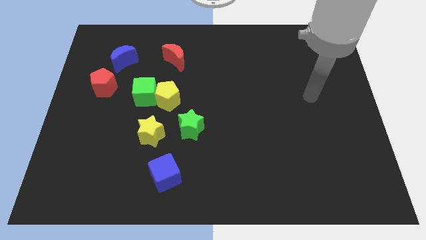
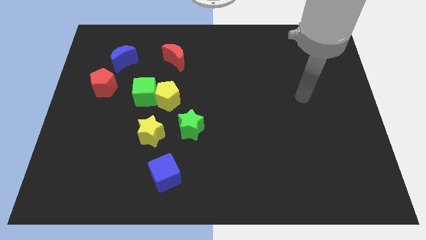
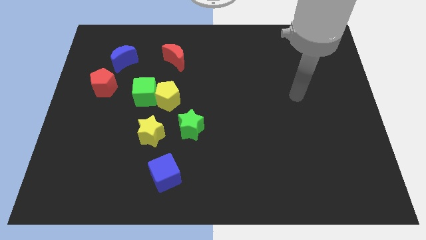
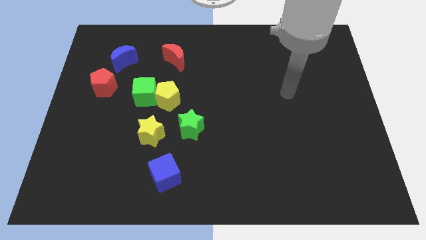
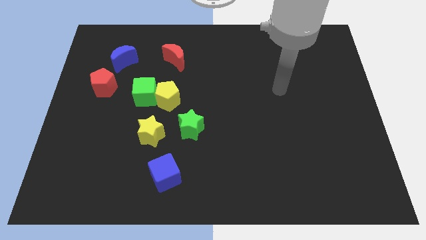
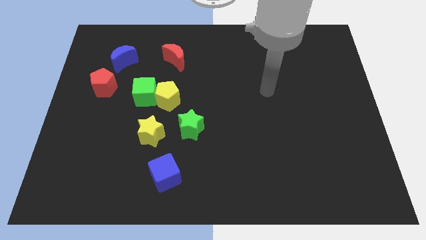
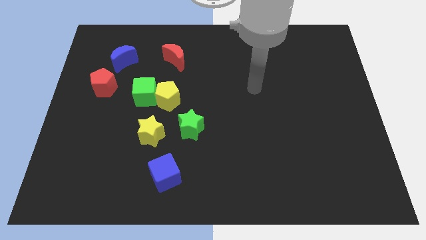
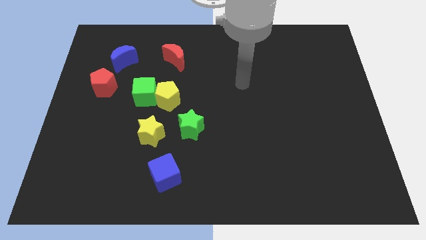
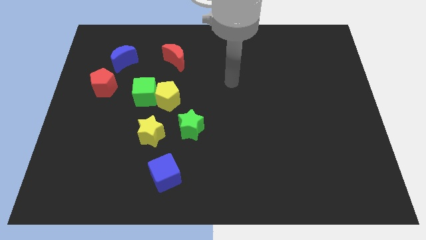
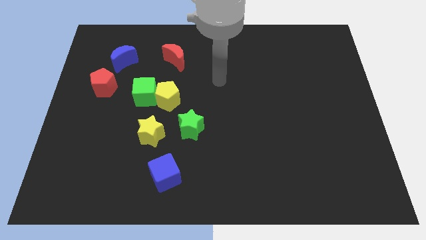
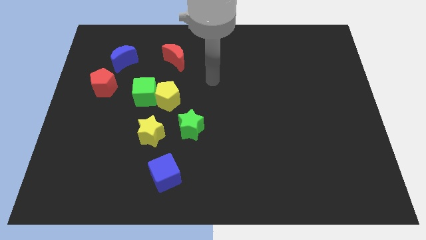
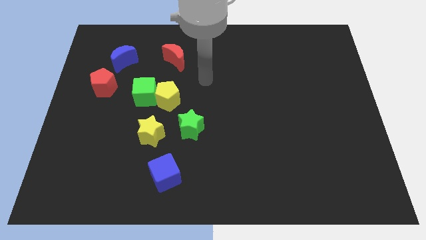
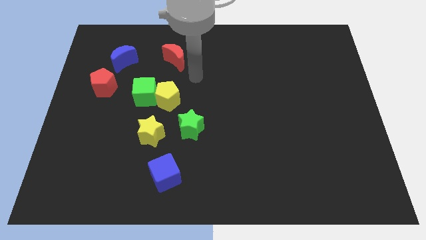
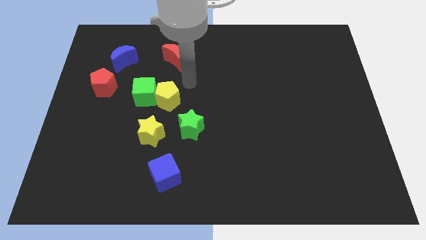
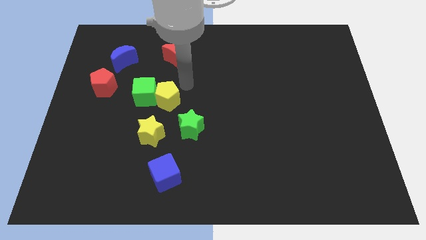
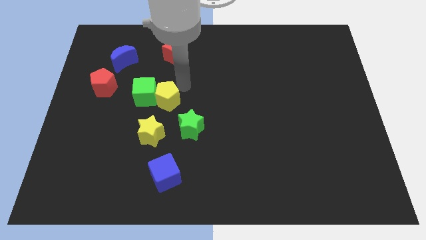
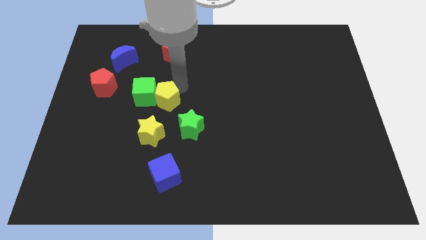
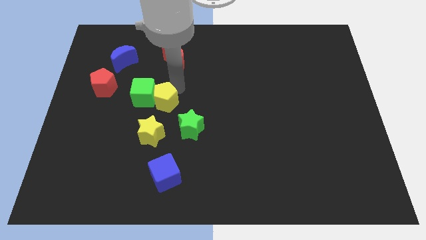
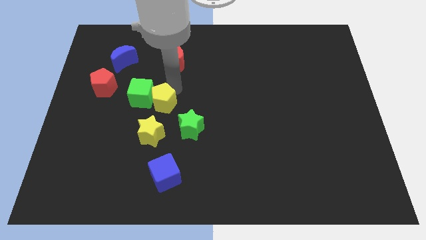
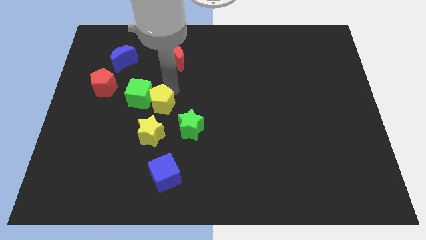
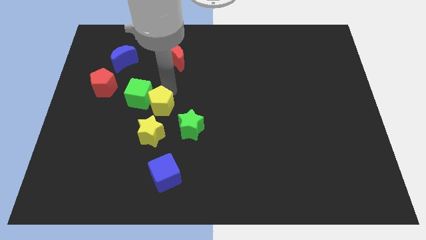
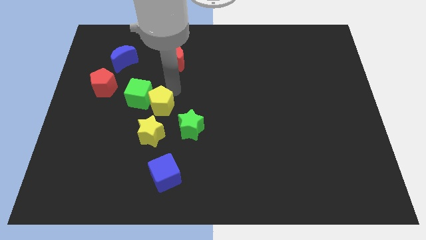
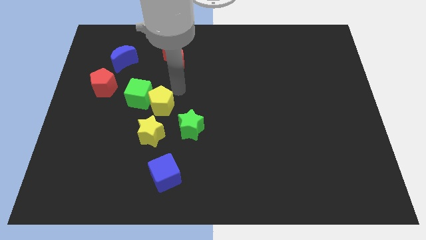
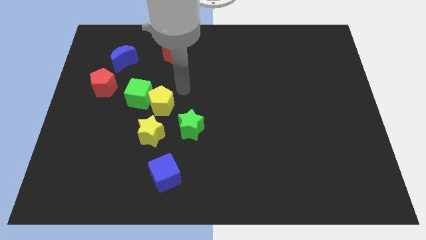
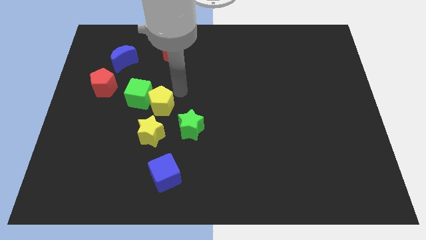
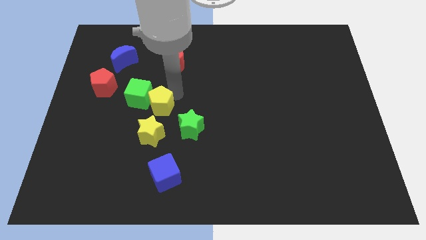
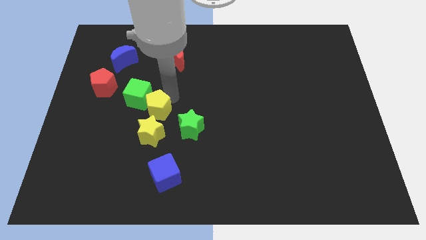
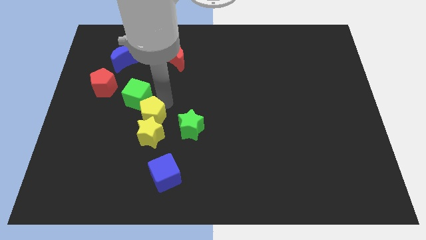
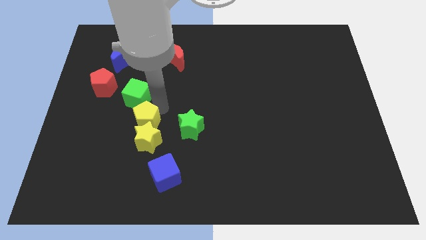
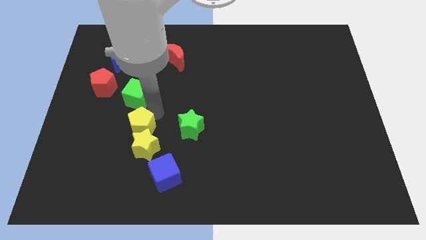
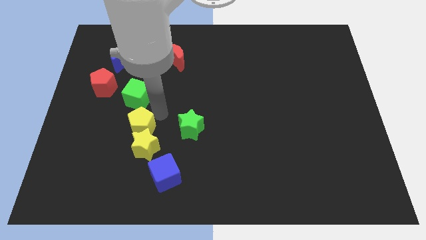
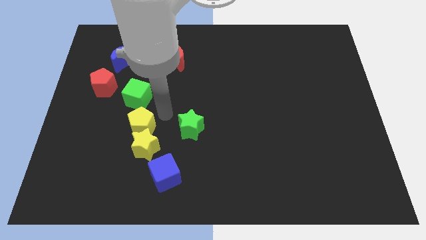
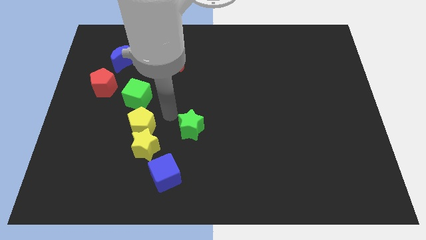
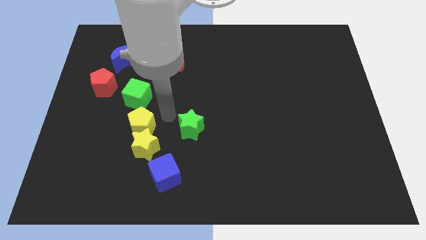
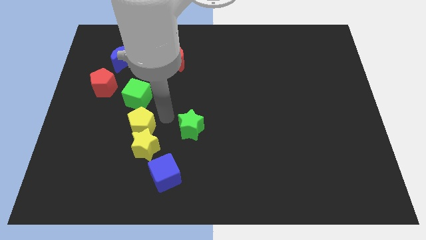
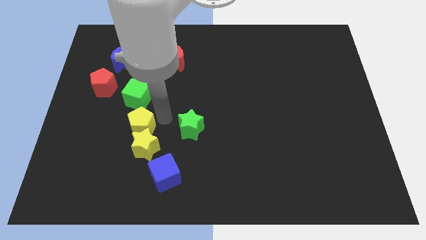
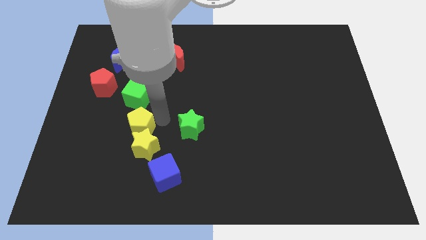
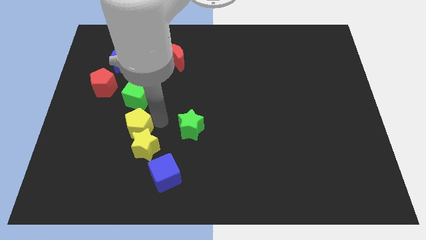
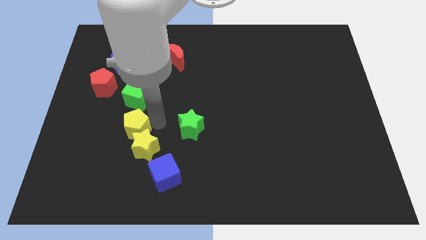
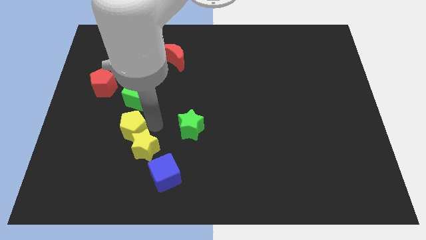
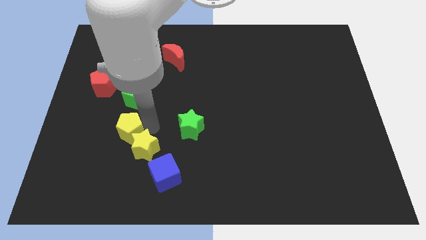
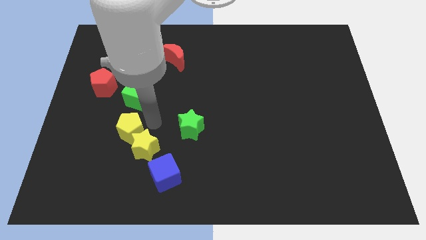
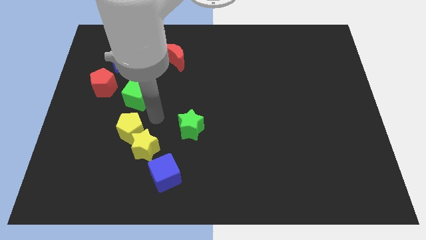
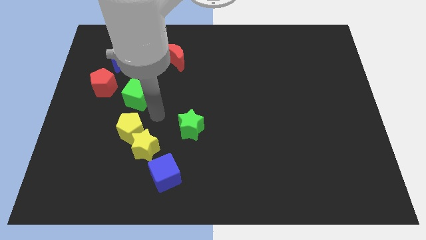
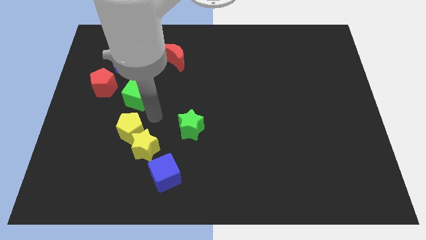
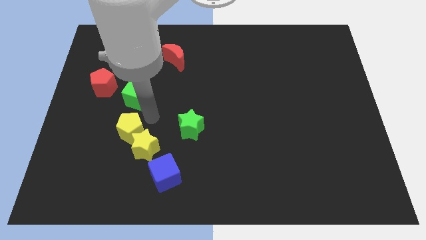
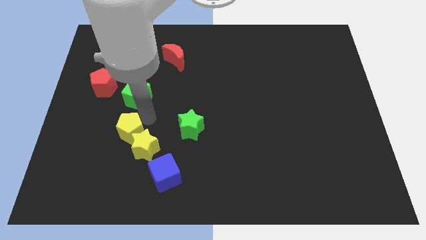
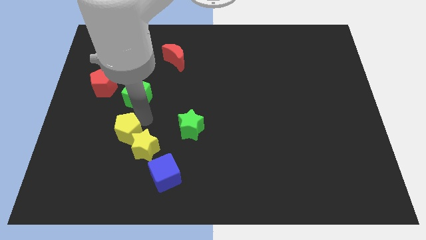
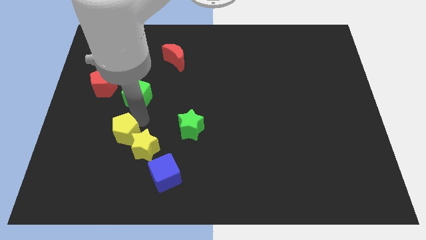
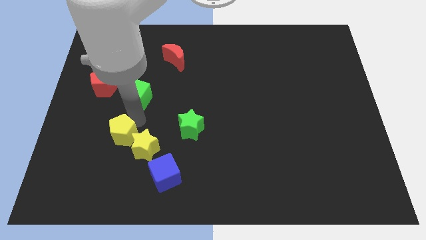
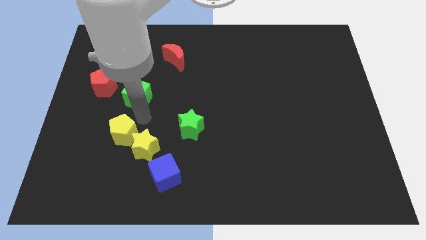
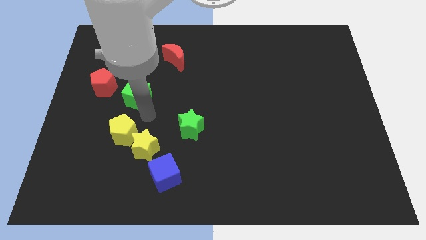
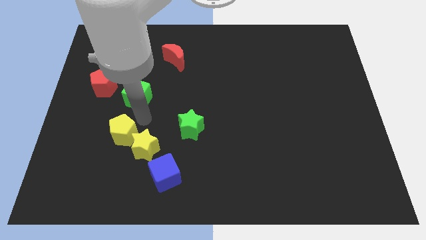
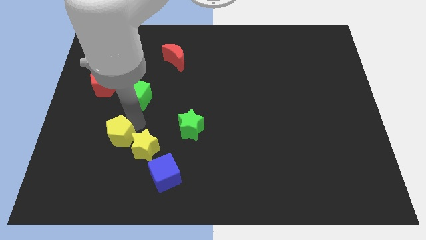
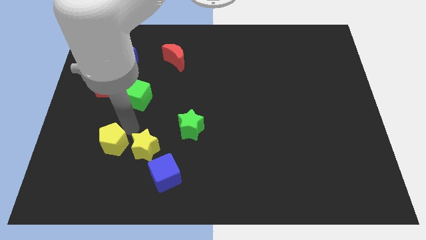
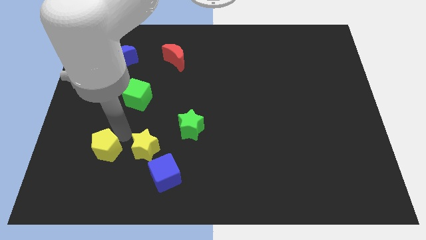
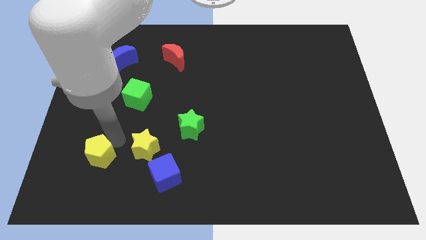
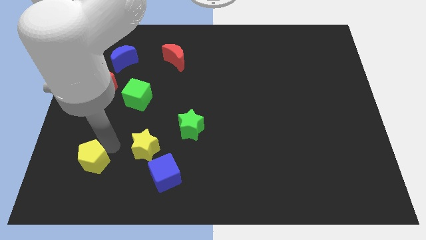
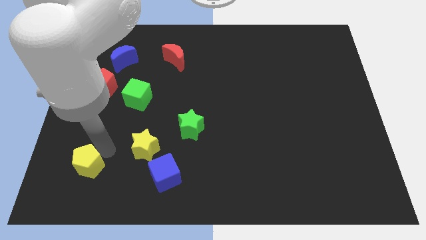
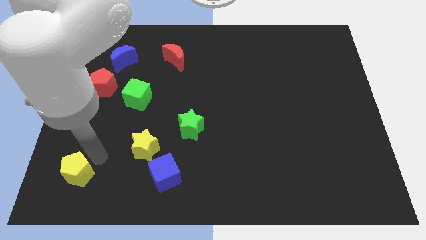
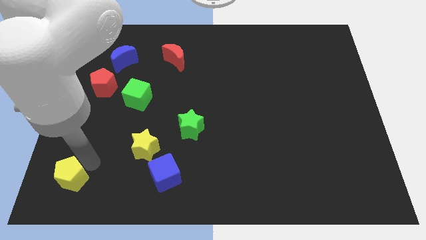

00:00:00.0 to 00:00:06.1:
slide the yellow pentagon to the lower left corner

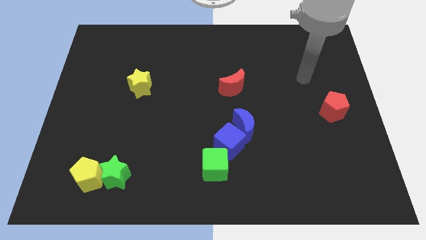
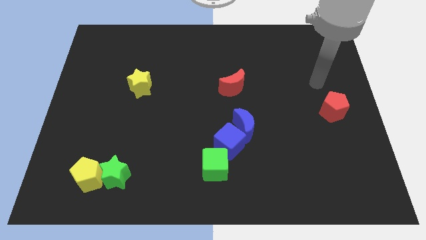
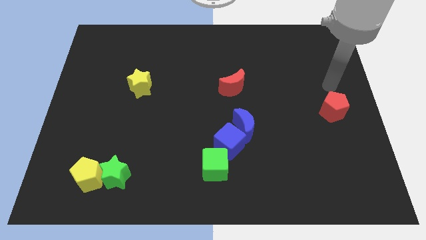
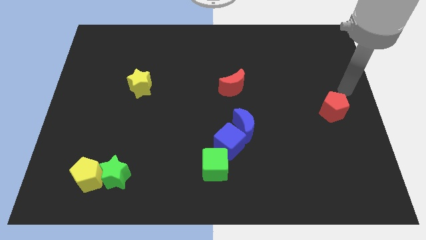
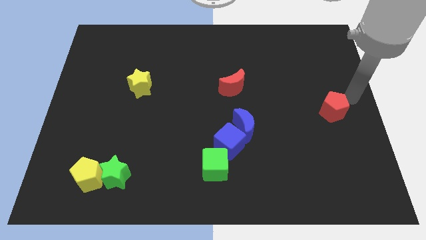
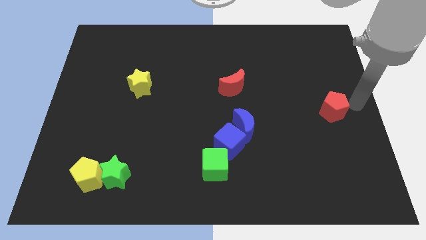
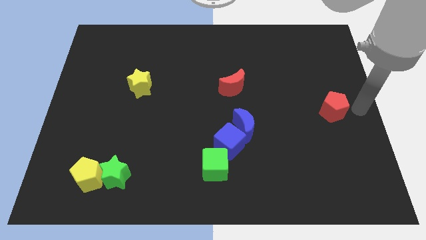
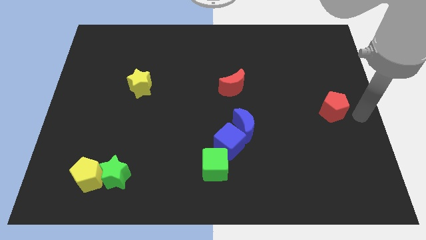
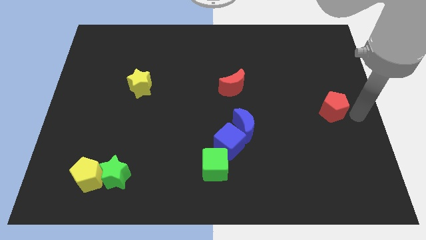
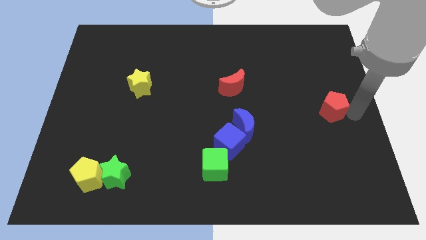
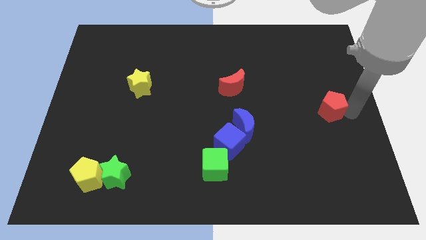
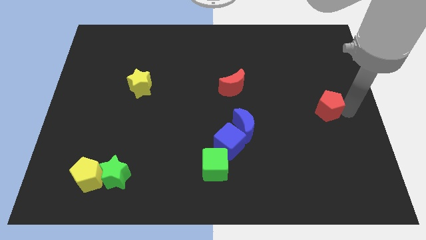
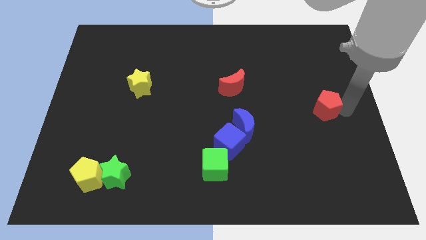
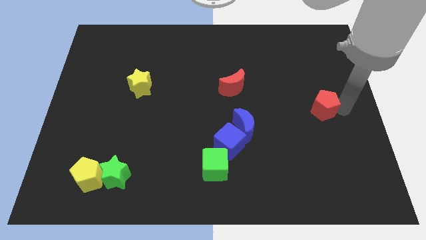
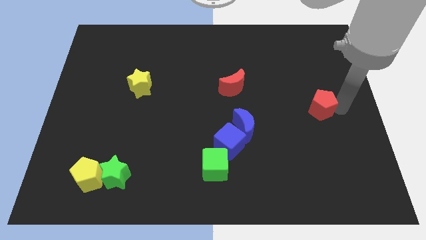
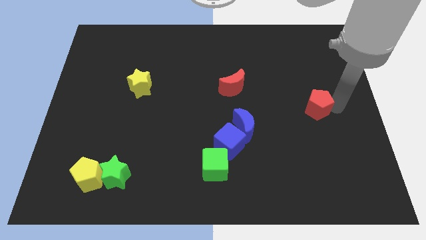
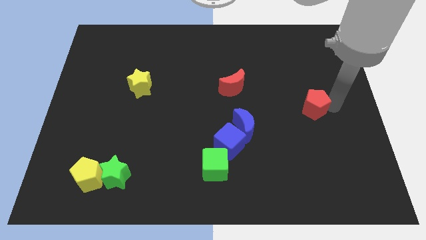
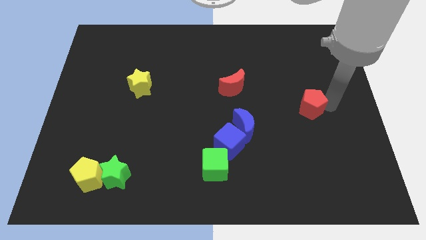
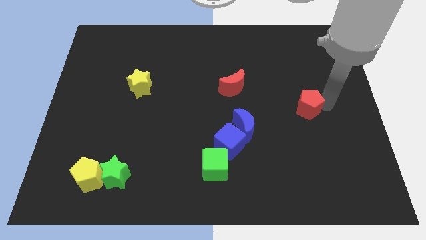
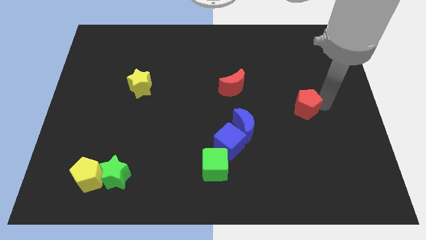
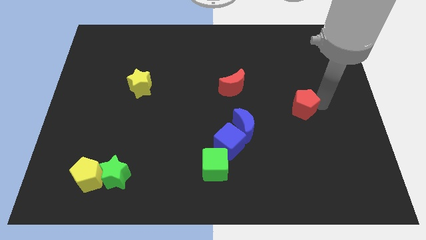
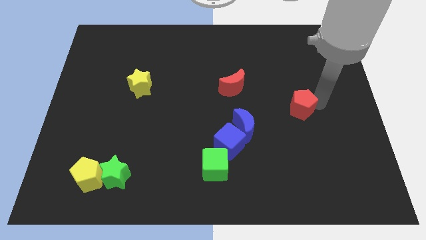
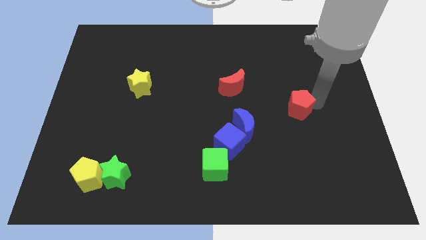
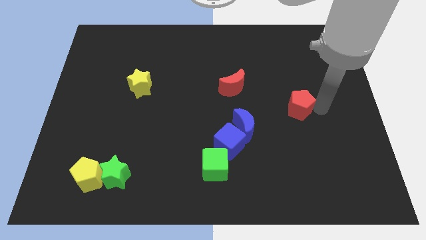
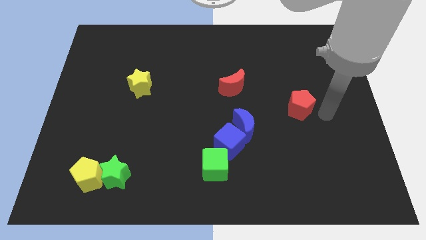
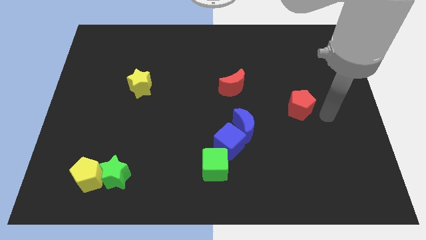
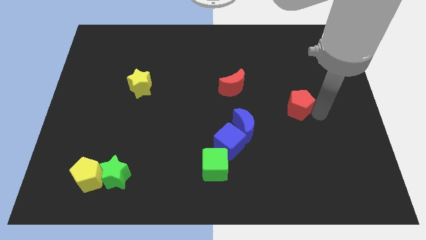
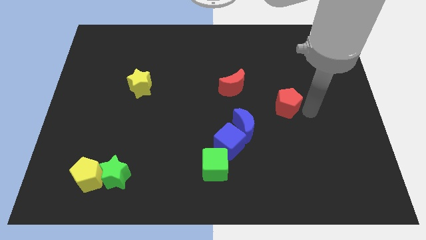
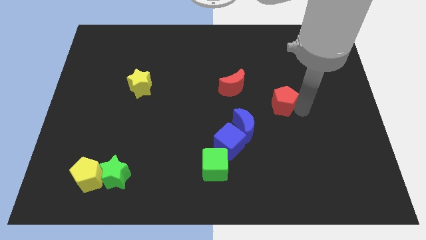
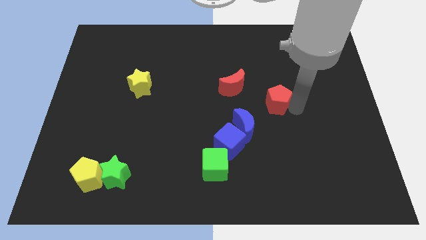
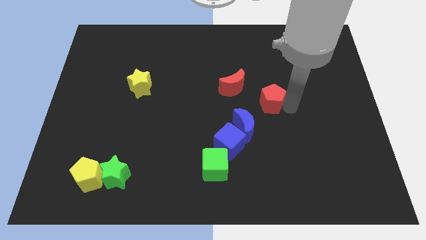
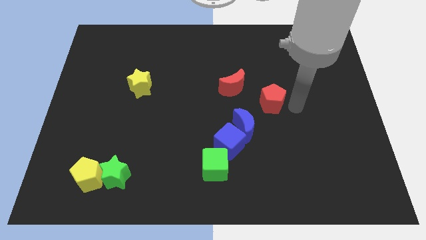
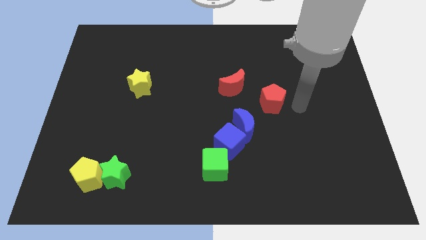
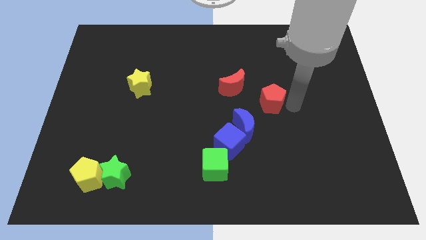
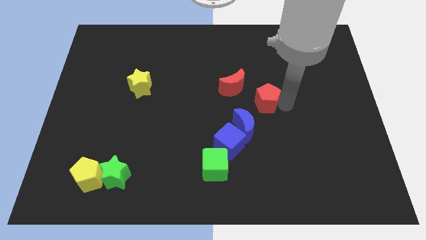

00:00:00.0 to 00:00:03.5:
move the red pentagon to the middle of the board
